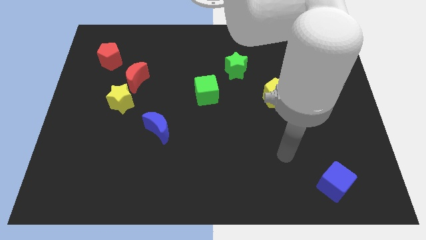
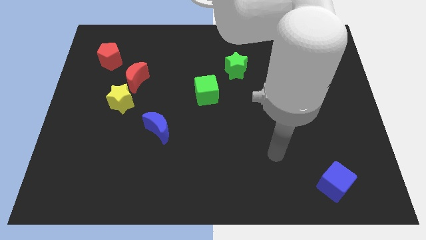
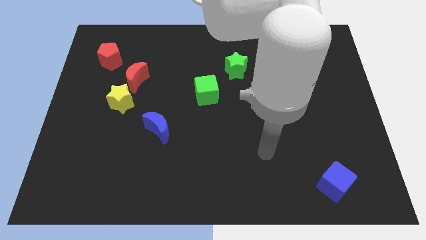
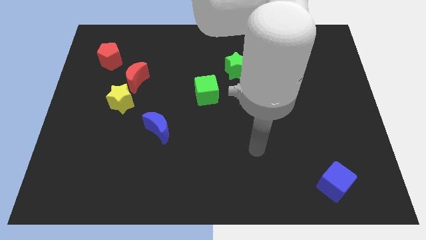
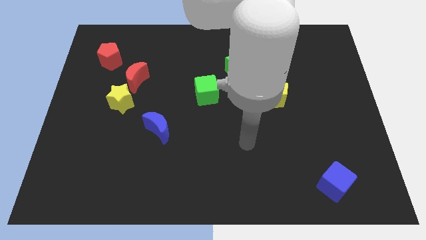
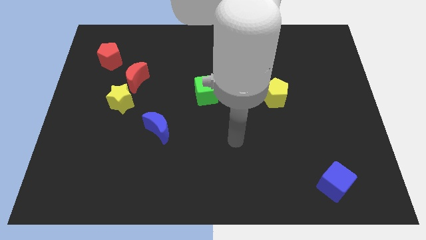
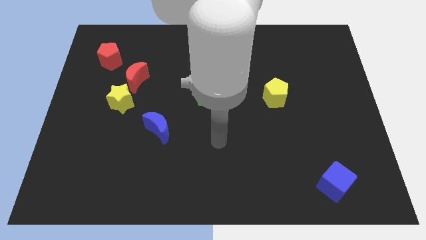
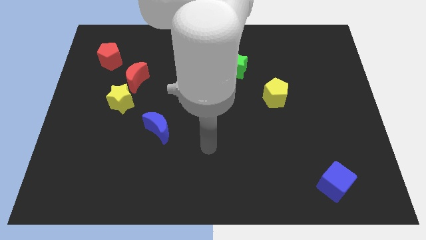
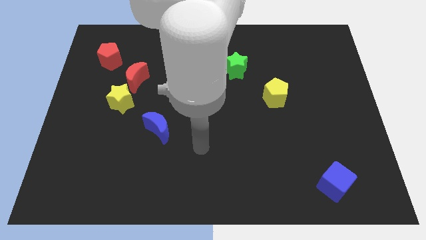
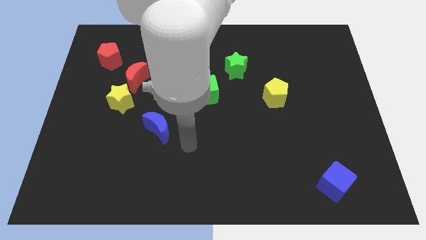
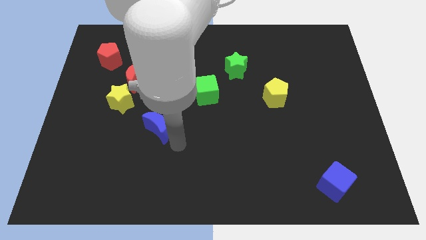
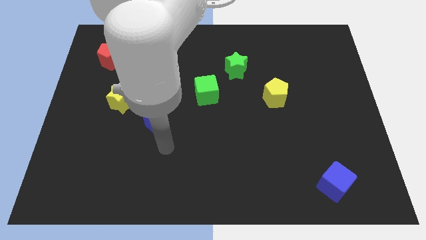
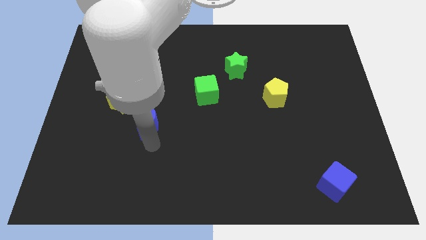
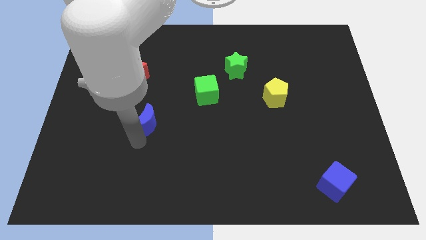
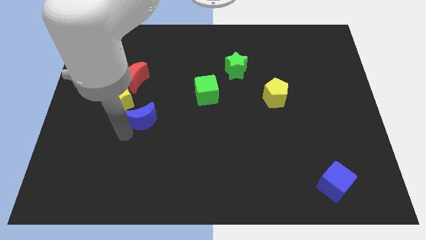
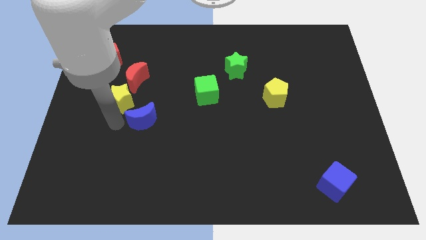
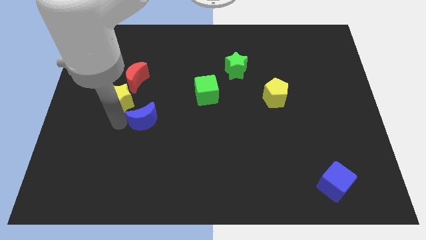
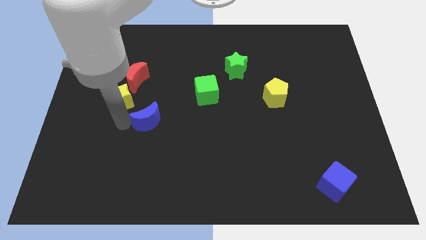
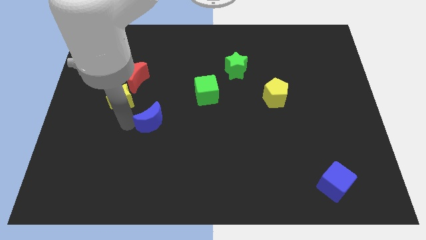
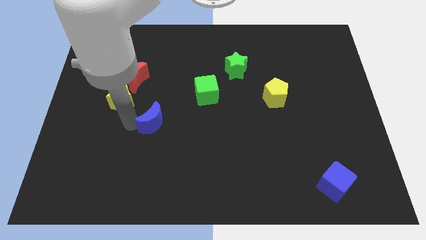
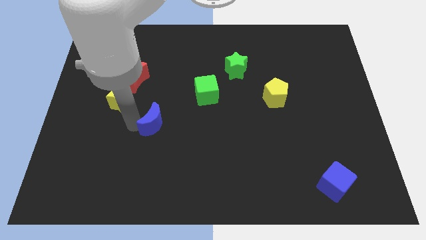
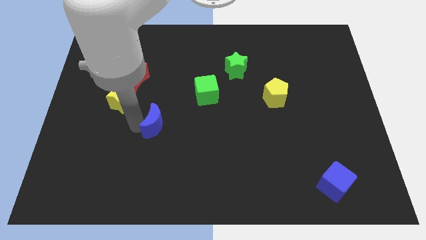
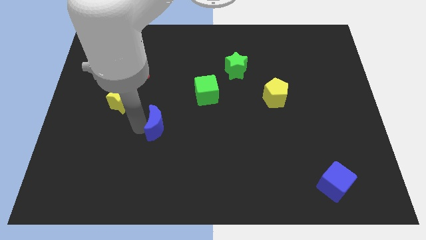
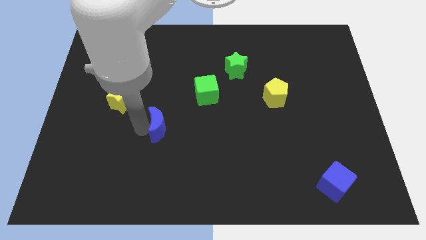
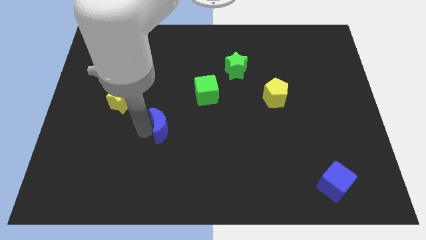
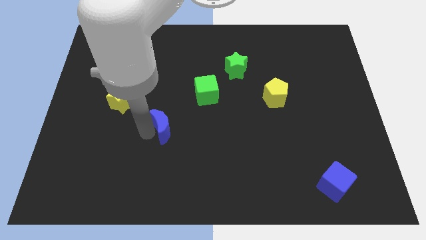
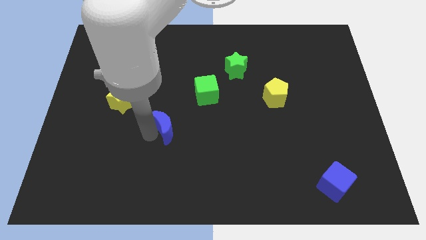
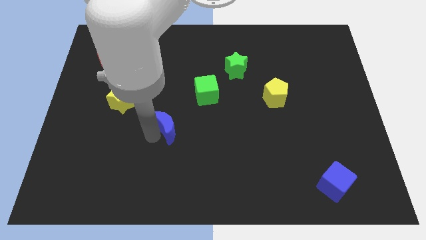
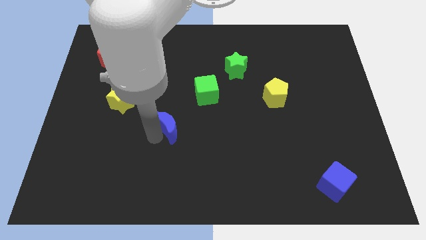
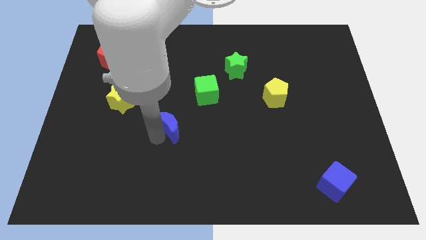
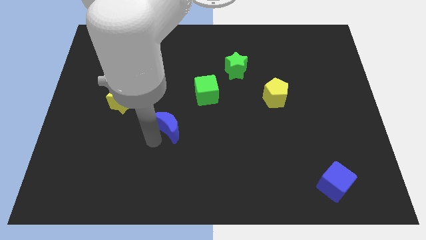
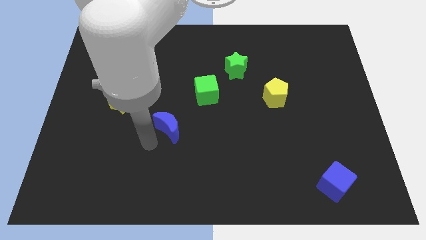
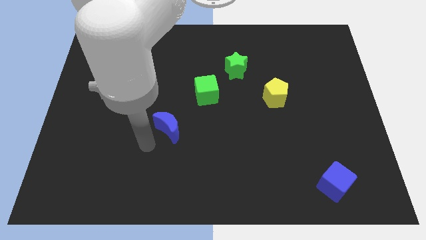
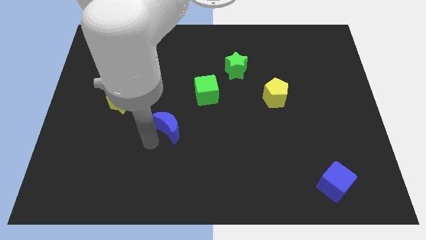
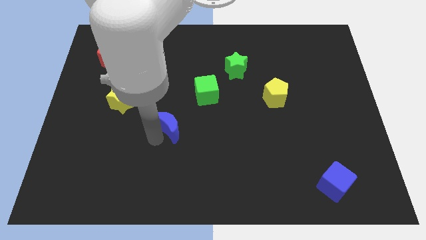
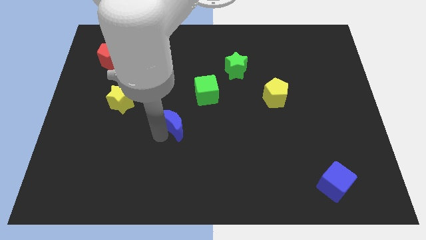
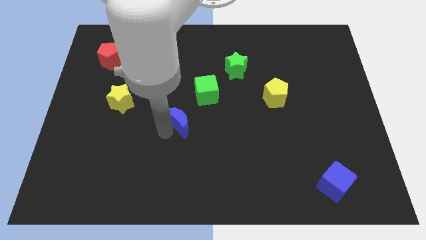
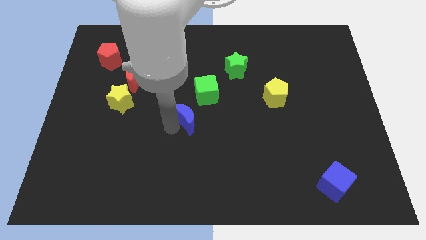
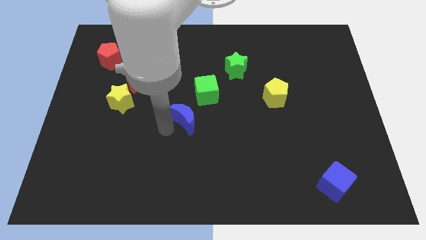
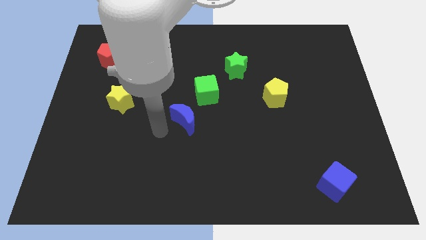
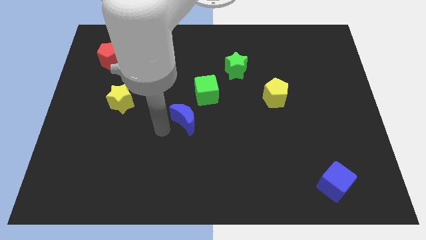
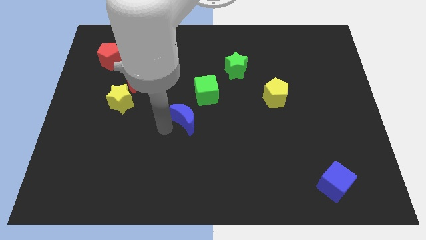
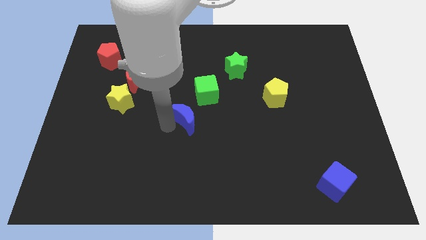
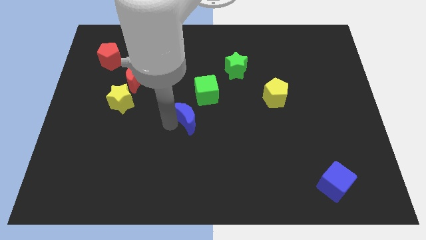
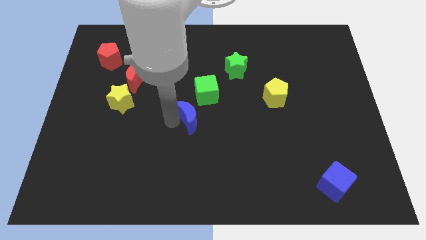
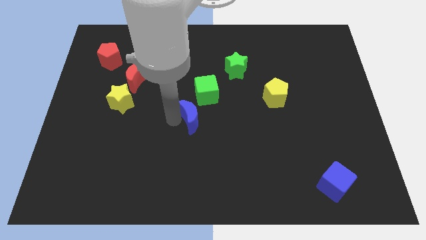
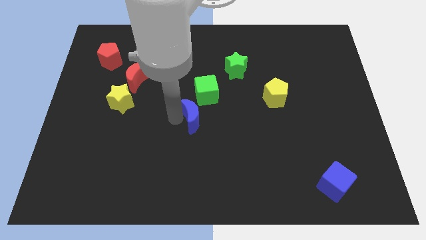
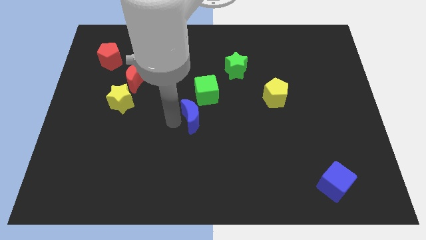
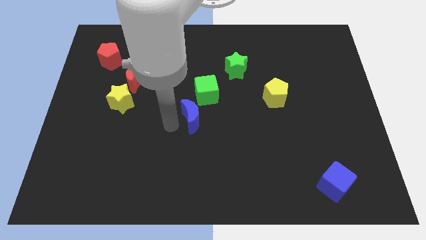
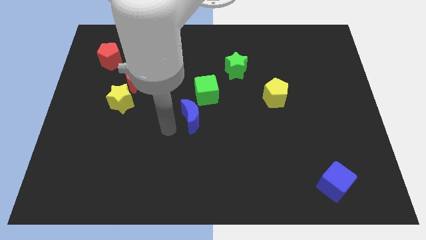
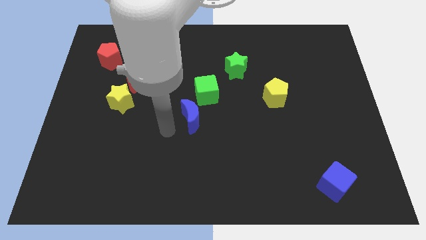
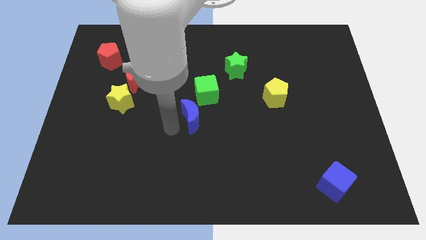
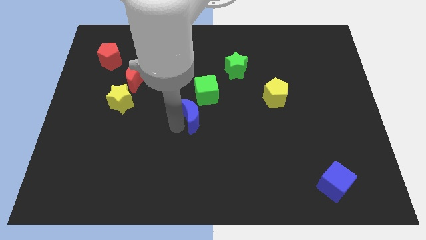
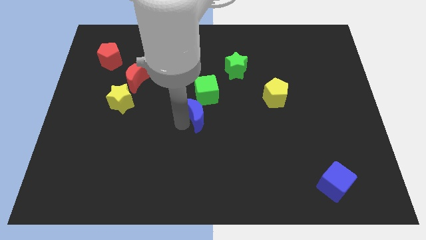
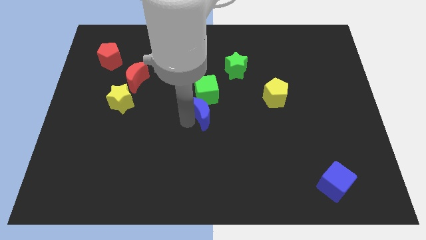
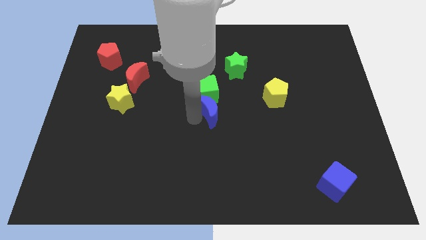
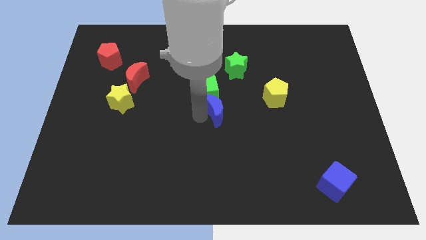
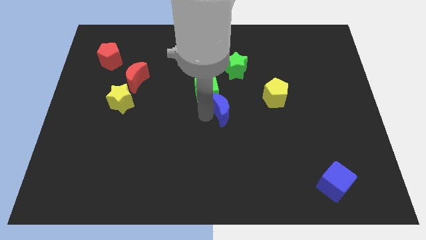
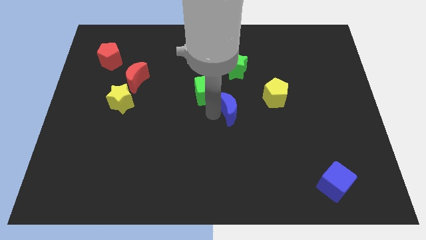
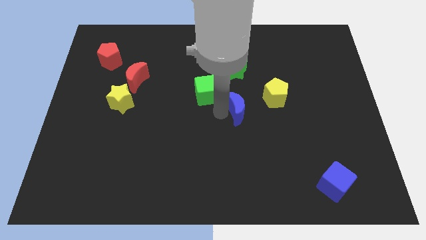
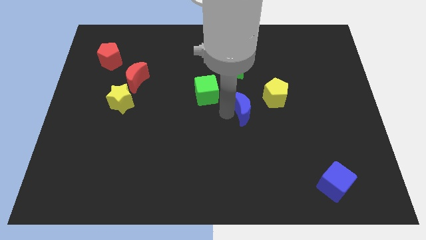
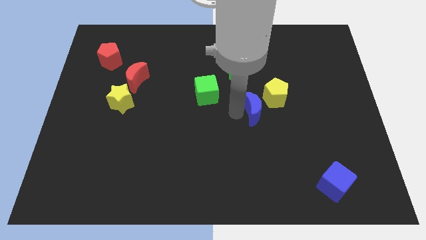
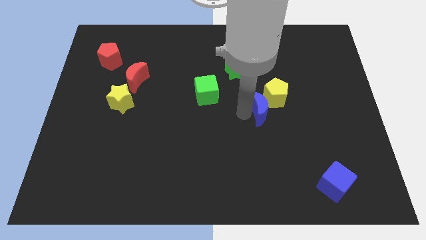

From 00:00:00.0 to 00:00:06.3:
move the blue moon next to the yellow pentagon

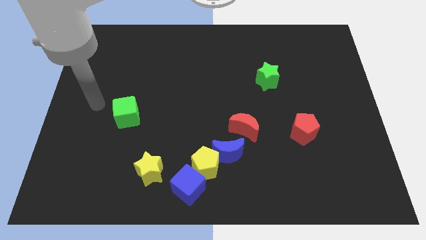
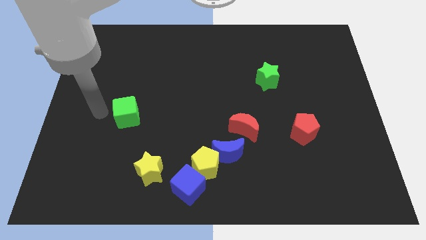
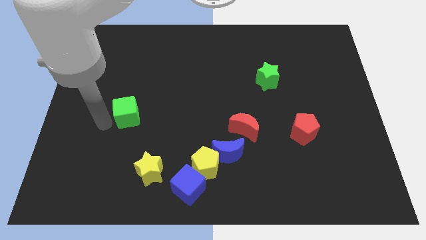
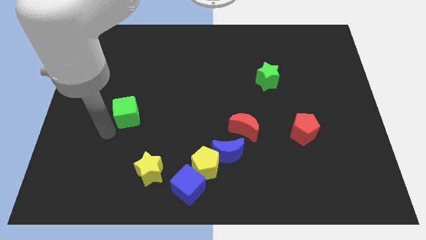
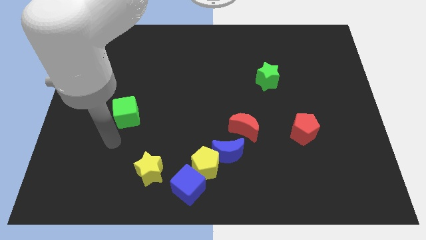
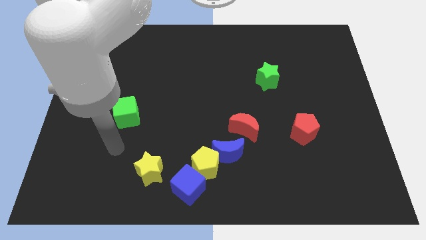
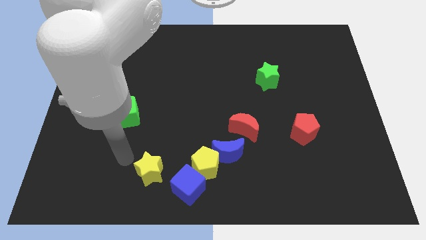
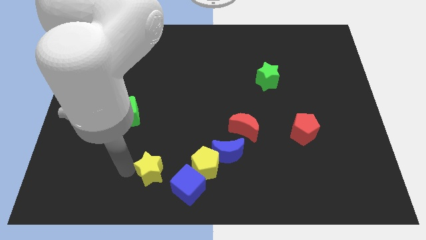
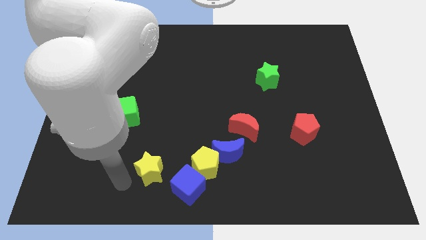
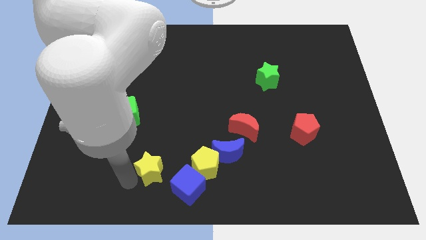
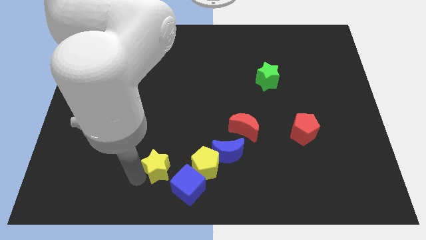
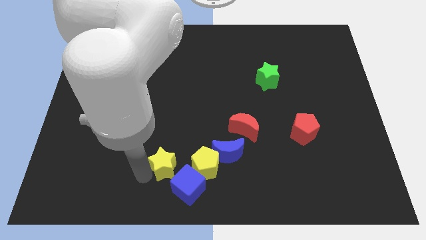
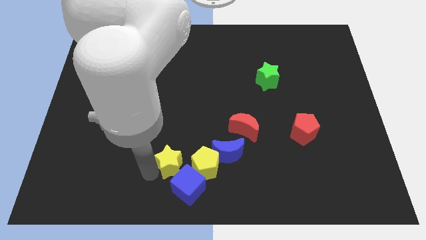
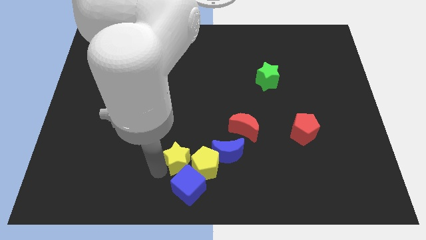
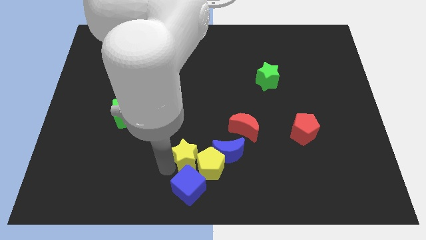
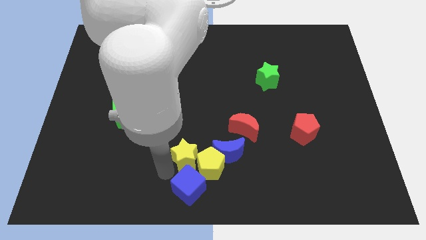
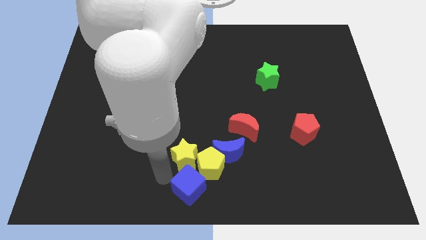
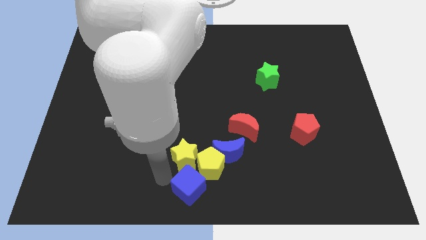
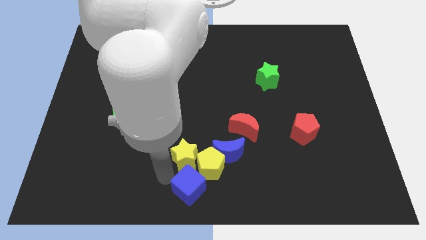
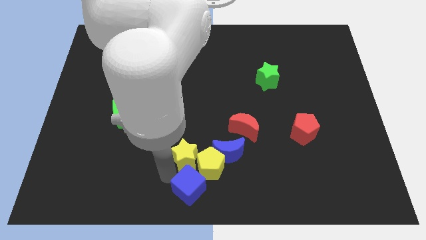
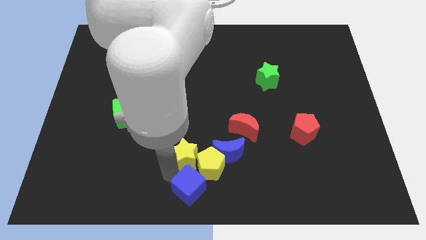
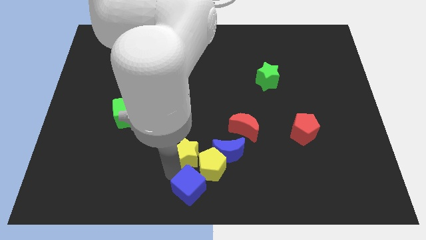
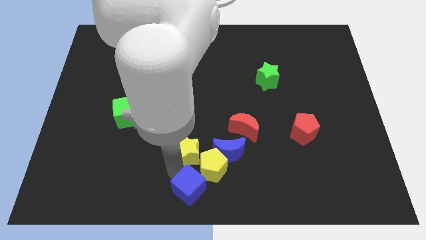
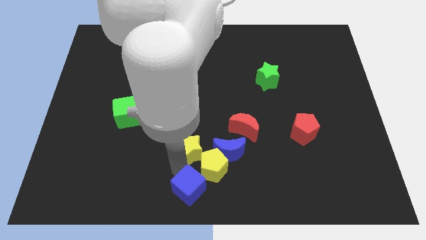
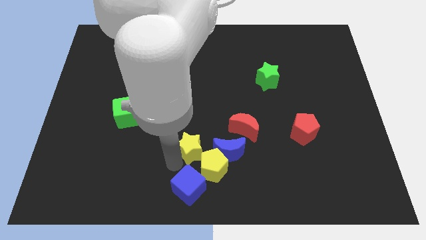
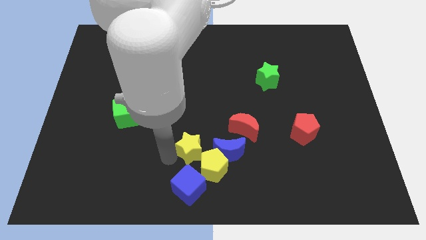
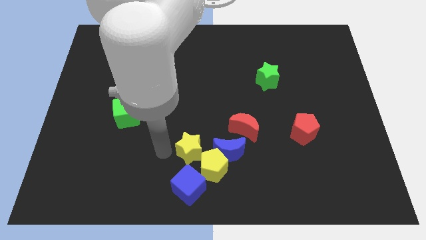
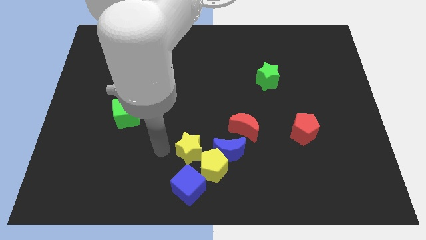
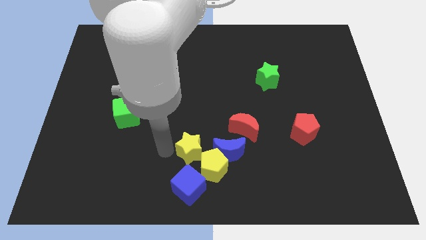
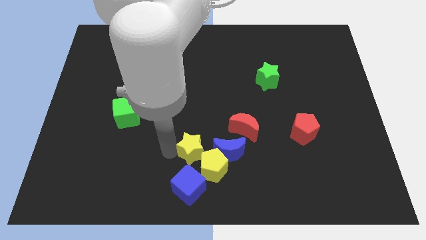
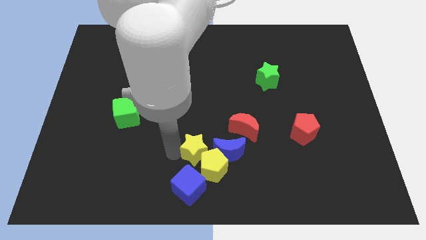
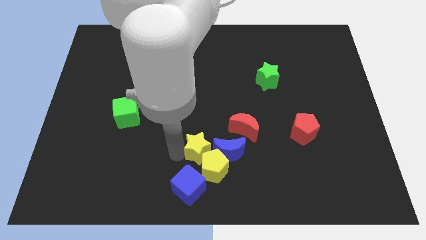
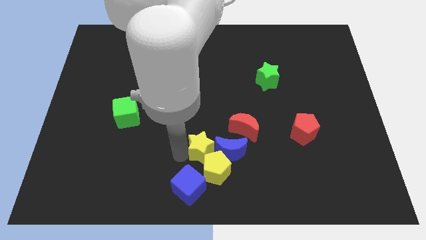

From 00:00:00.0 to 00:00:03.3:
move the yellow star towards the blue moon
